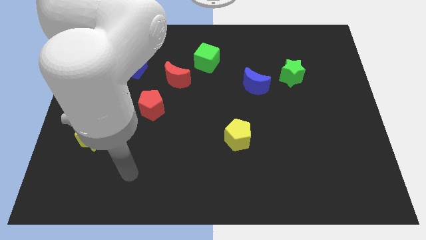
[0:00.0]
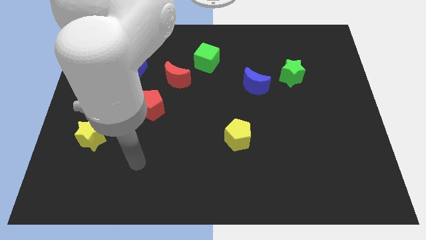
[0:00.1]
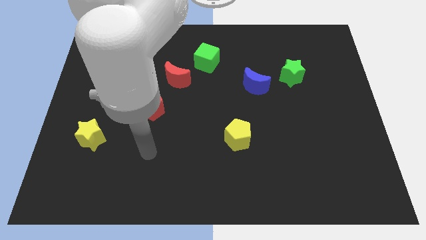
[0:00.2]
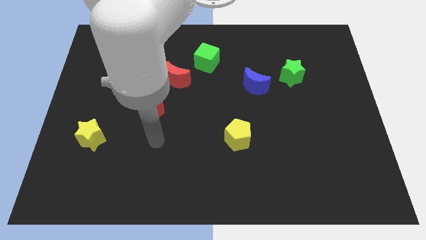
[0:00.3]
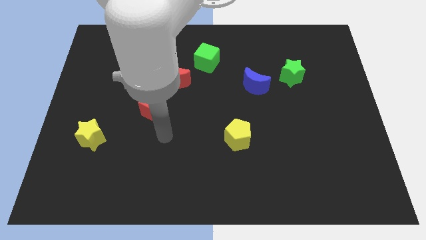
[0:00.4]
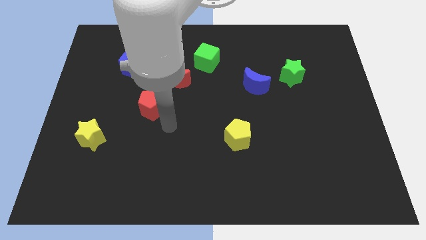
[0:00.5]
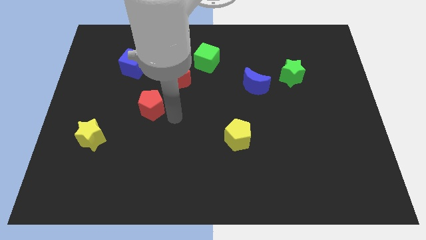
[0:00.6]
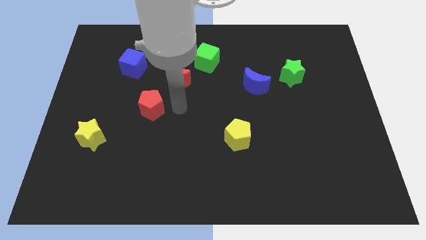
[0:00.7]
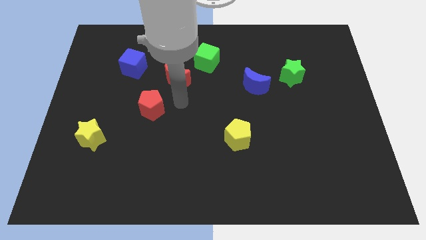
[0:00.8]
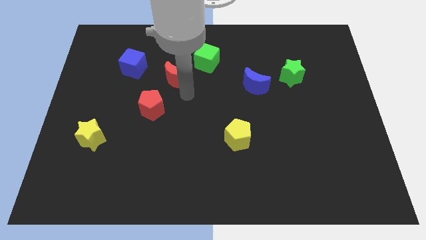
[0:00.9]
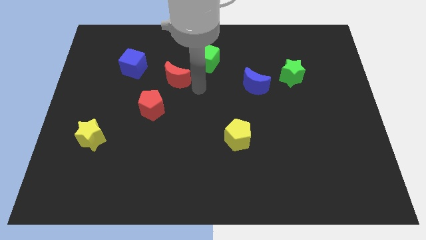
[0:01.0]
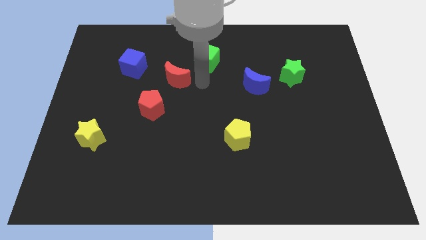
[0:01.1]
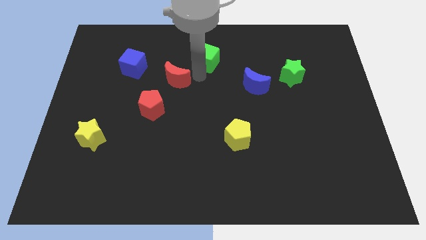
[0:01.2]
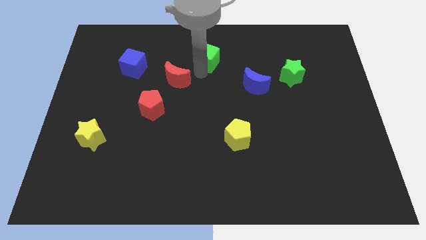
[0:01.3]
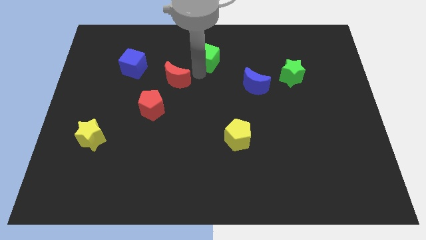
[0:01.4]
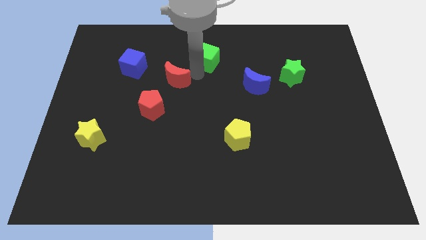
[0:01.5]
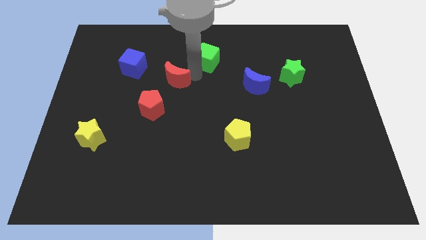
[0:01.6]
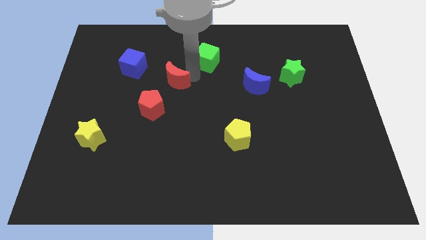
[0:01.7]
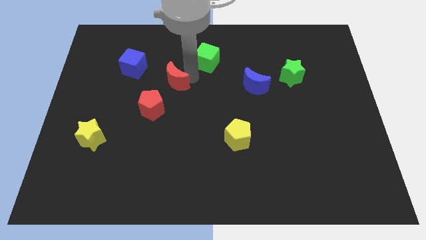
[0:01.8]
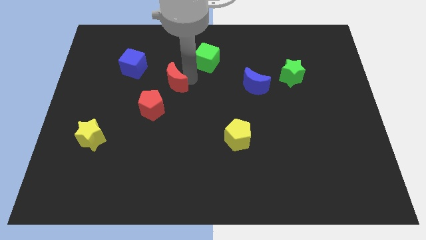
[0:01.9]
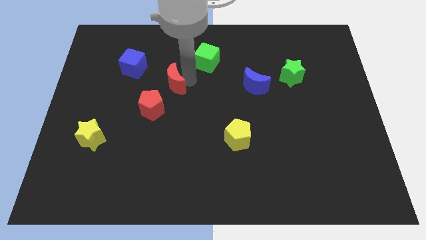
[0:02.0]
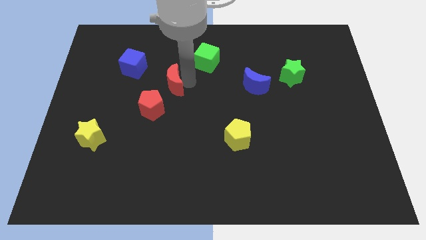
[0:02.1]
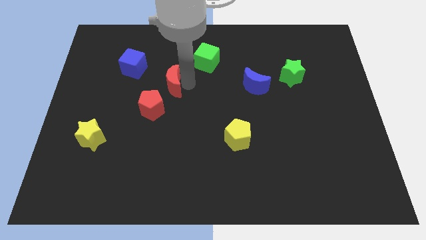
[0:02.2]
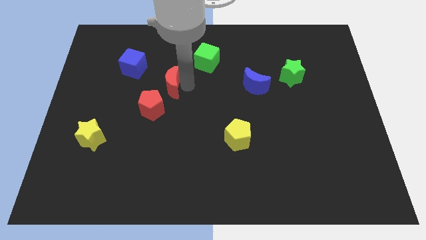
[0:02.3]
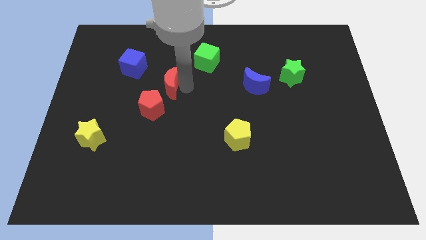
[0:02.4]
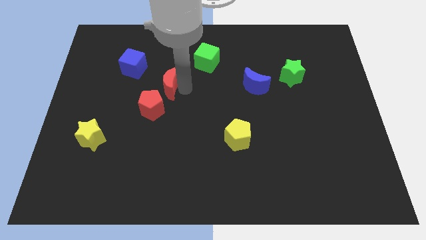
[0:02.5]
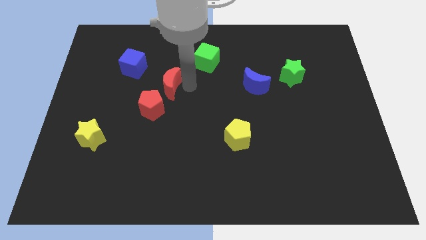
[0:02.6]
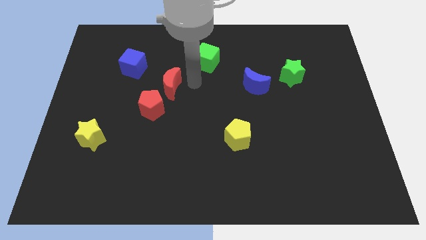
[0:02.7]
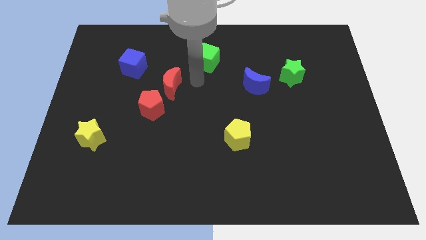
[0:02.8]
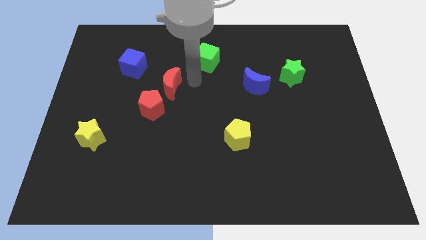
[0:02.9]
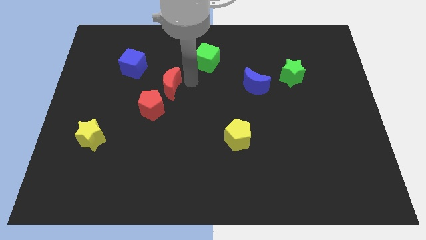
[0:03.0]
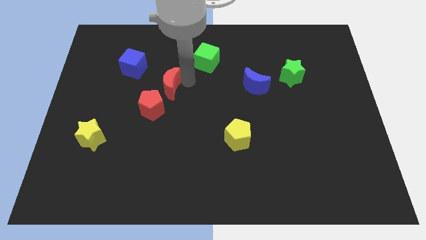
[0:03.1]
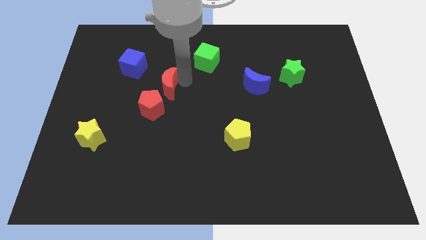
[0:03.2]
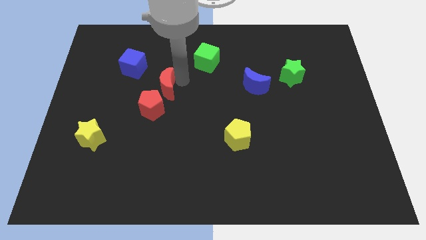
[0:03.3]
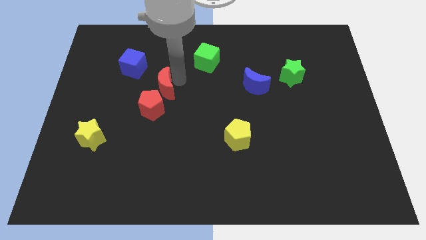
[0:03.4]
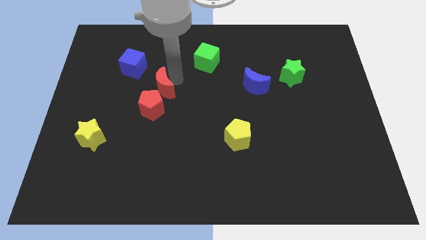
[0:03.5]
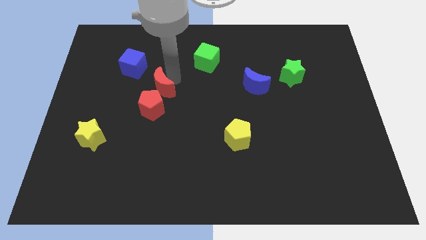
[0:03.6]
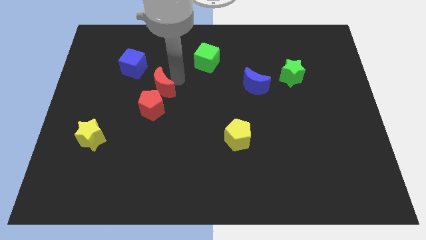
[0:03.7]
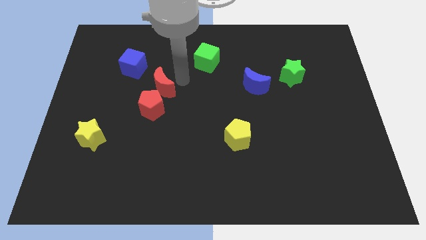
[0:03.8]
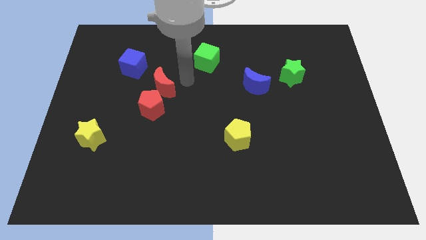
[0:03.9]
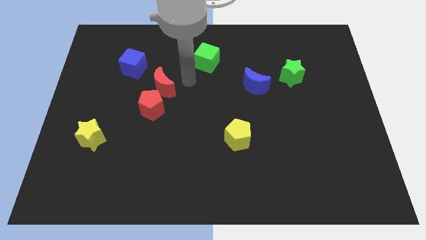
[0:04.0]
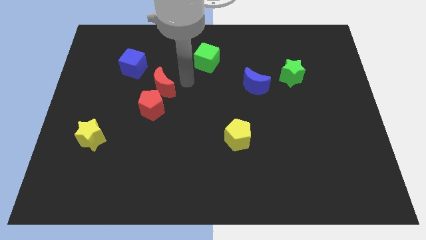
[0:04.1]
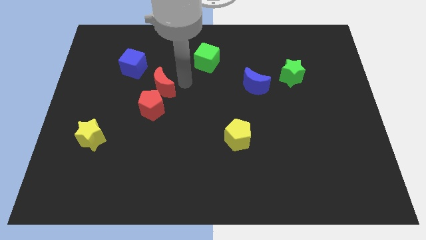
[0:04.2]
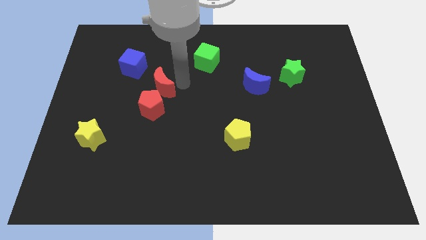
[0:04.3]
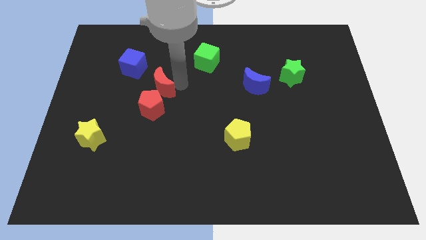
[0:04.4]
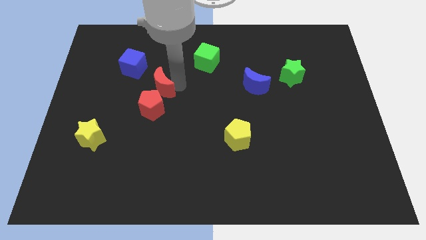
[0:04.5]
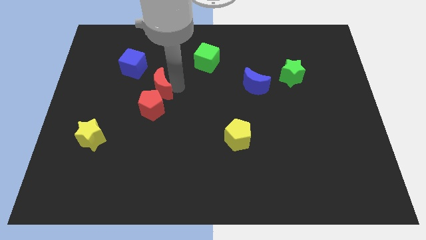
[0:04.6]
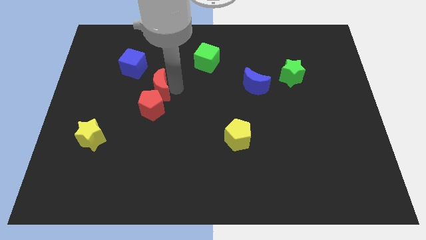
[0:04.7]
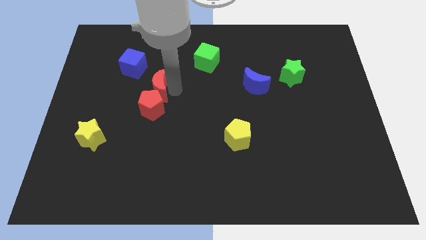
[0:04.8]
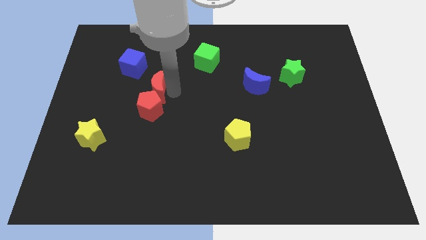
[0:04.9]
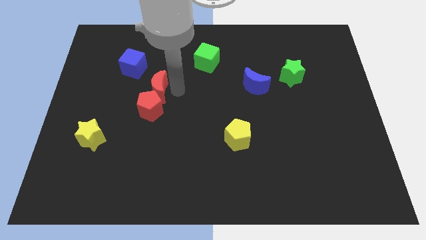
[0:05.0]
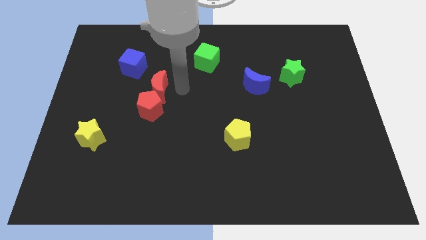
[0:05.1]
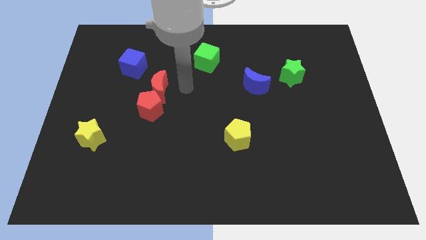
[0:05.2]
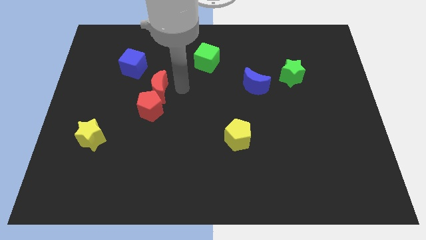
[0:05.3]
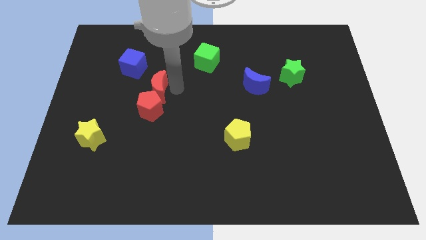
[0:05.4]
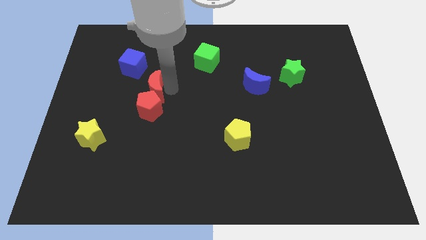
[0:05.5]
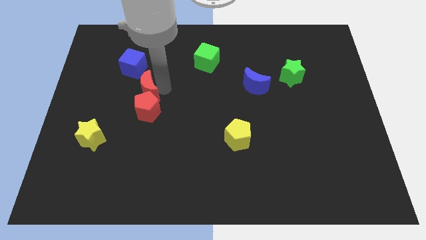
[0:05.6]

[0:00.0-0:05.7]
push the red moon to the bottom of the blue cube

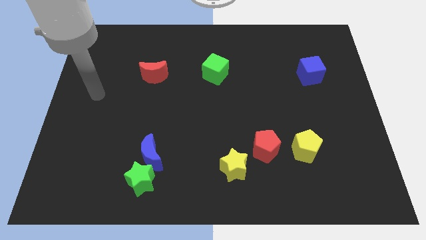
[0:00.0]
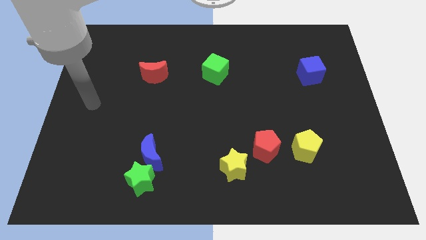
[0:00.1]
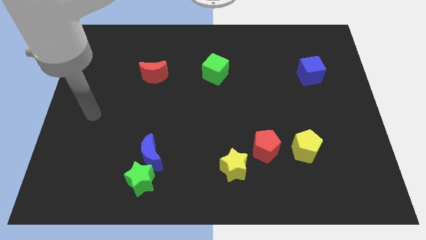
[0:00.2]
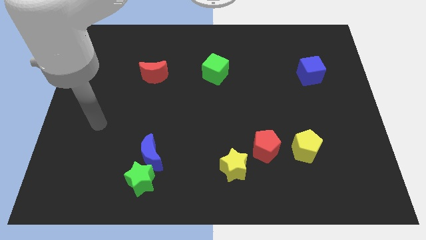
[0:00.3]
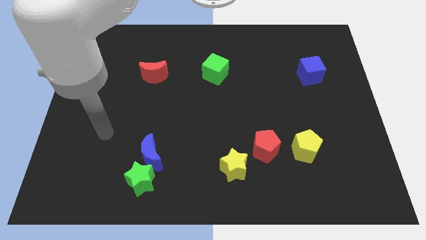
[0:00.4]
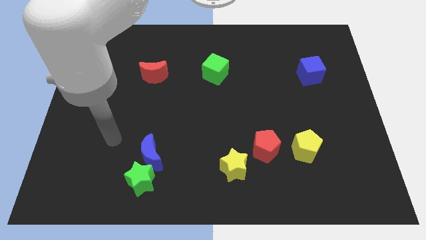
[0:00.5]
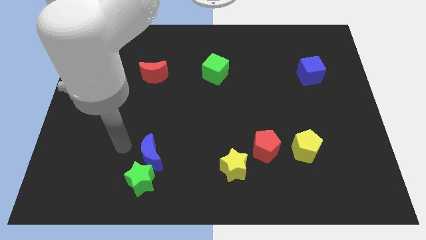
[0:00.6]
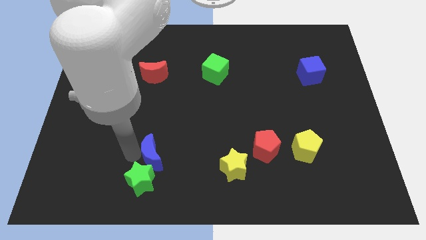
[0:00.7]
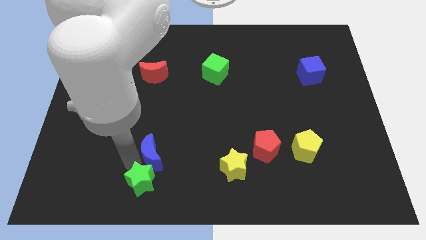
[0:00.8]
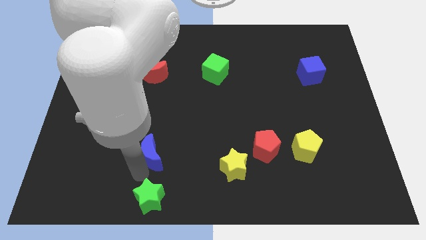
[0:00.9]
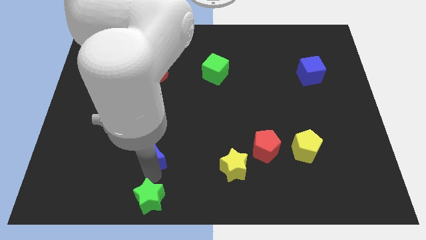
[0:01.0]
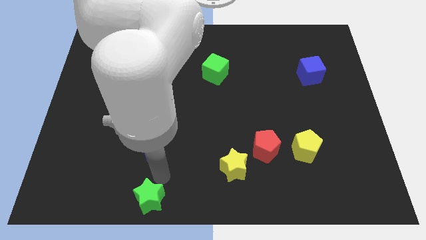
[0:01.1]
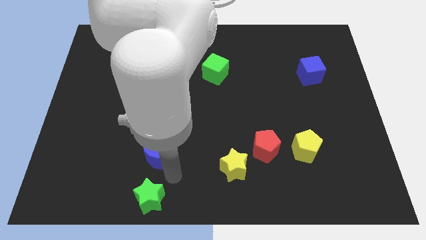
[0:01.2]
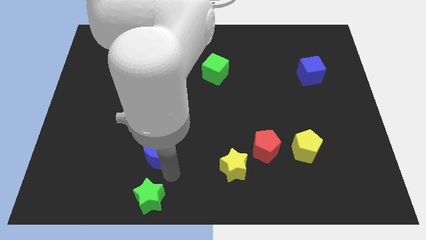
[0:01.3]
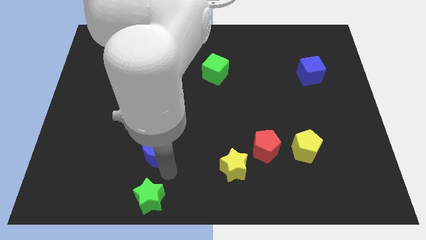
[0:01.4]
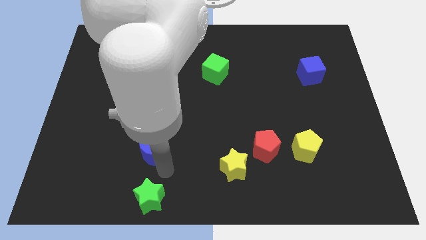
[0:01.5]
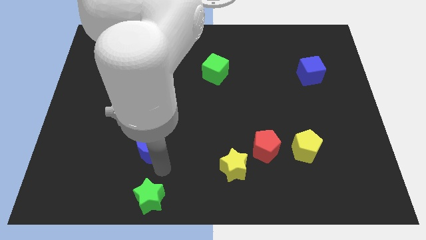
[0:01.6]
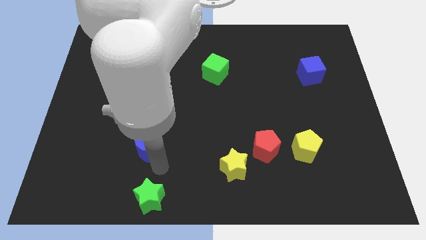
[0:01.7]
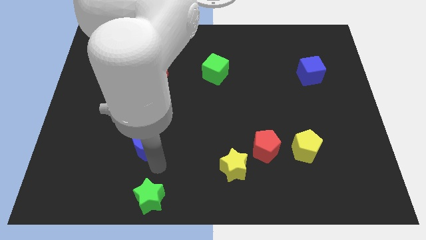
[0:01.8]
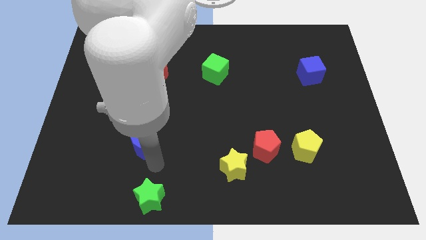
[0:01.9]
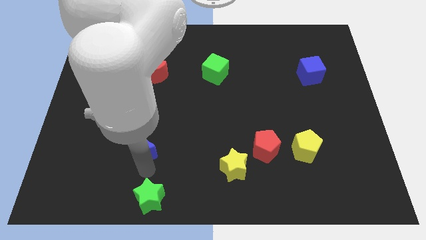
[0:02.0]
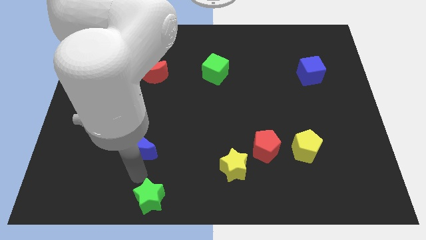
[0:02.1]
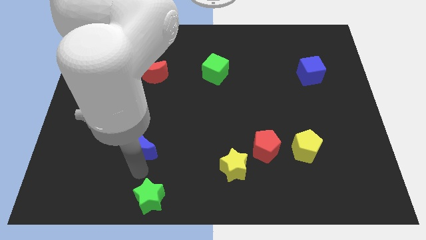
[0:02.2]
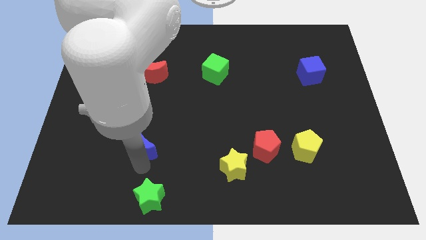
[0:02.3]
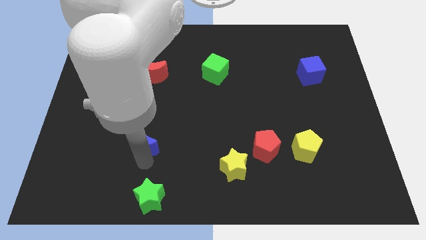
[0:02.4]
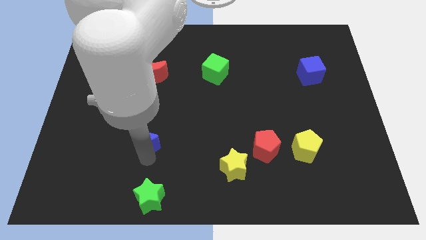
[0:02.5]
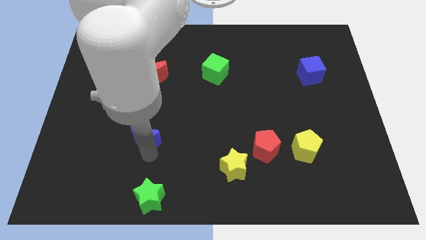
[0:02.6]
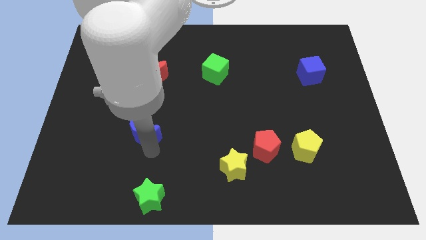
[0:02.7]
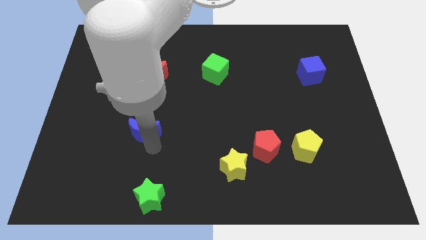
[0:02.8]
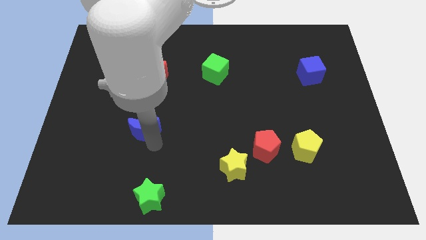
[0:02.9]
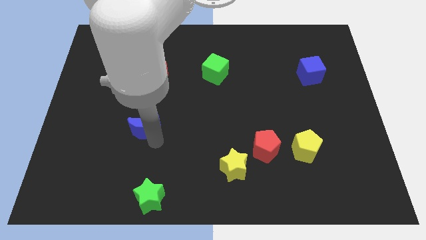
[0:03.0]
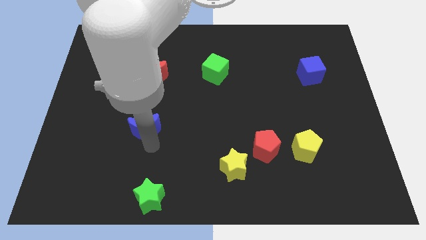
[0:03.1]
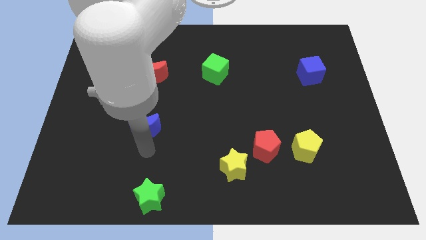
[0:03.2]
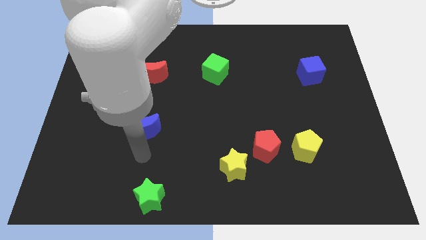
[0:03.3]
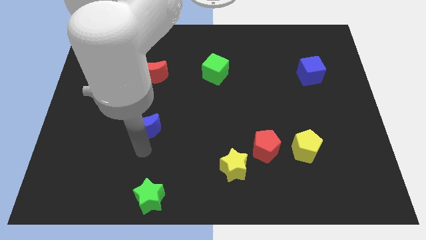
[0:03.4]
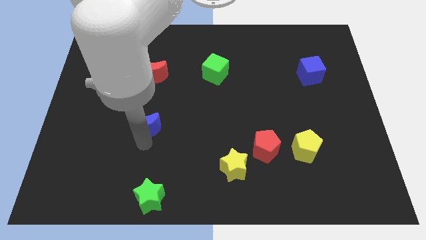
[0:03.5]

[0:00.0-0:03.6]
slide the blue moon to the bottom side of the red moon
